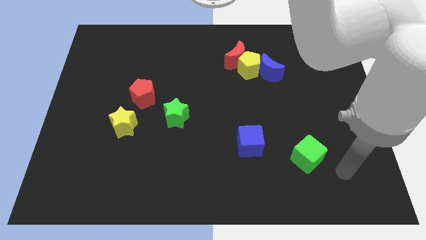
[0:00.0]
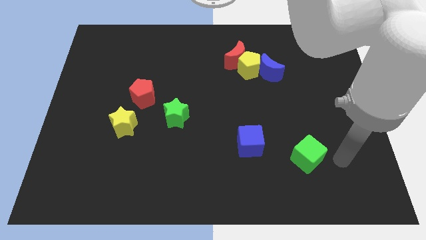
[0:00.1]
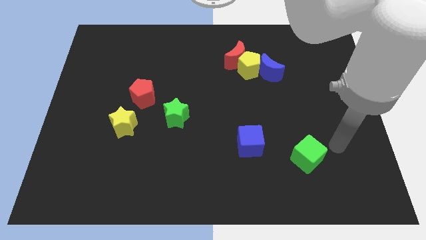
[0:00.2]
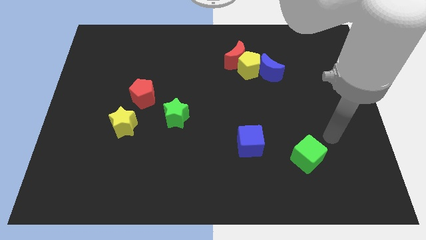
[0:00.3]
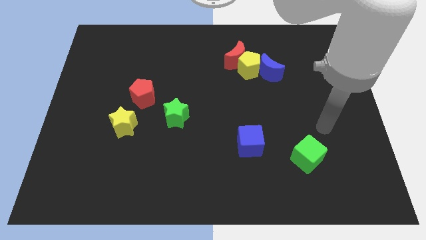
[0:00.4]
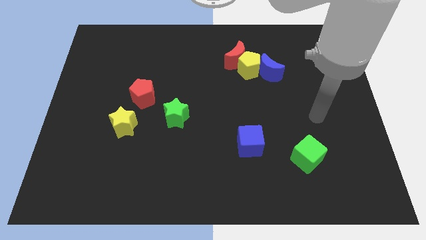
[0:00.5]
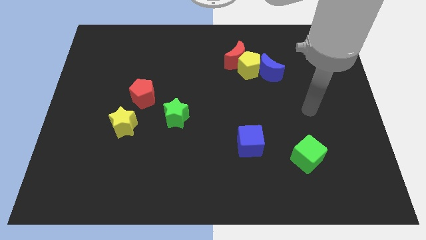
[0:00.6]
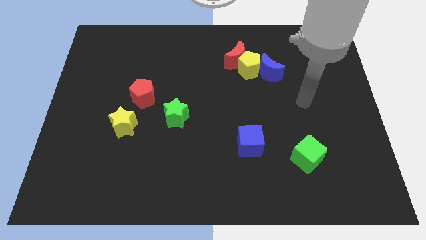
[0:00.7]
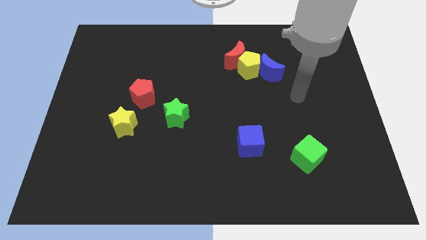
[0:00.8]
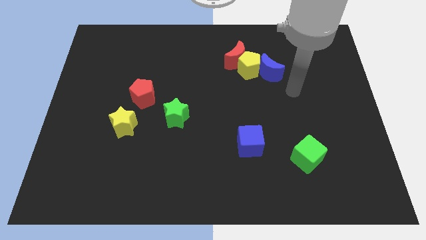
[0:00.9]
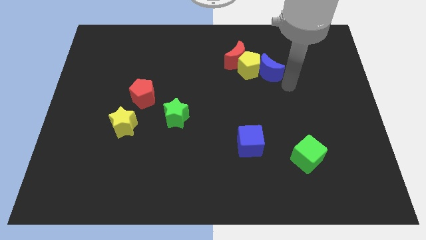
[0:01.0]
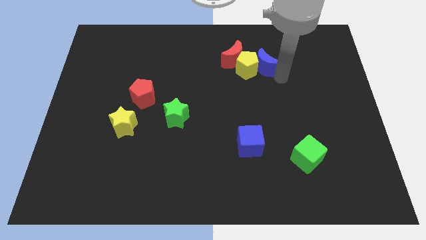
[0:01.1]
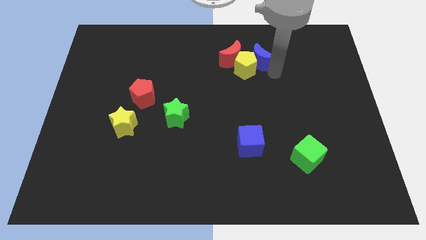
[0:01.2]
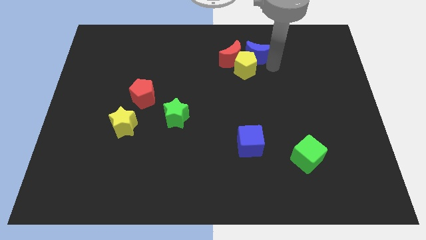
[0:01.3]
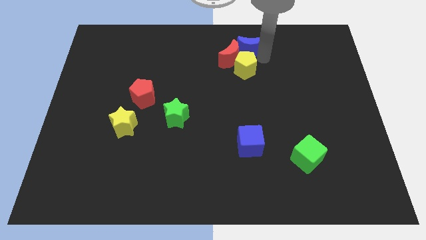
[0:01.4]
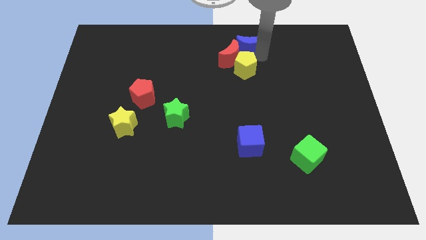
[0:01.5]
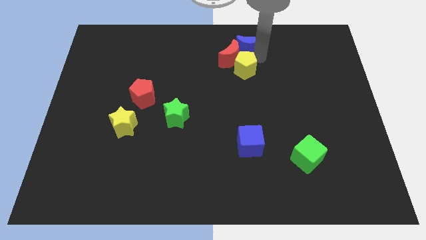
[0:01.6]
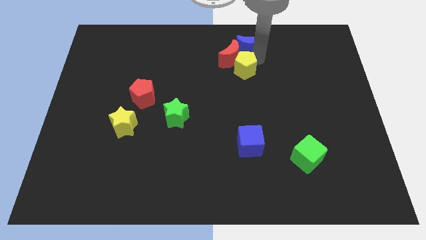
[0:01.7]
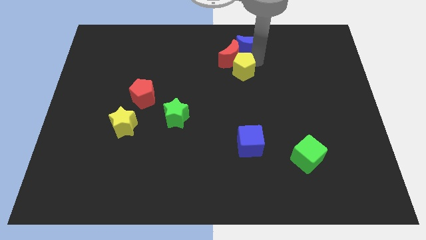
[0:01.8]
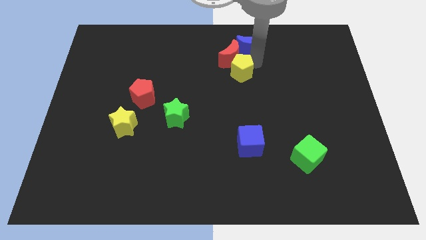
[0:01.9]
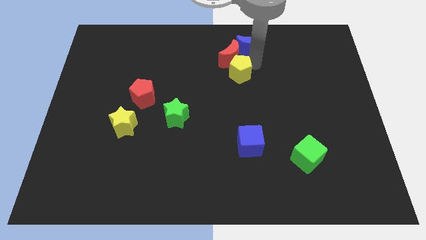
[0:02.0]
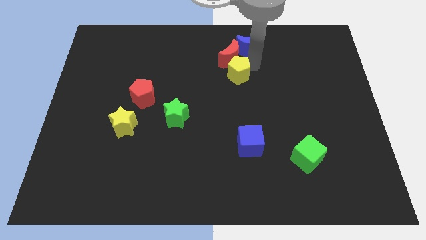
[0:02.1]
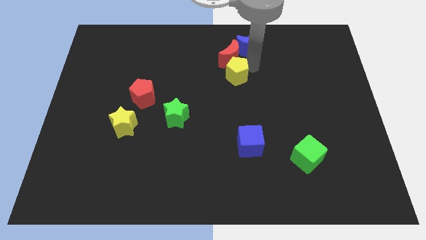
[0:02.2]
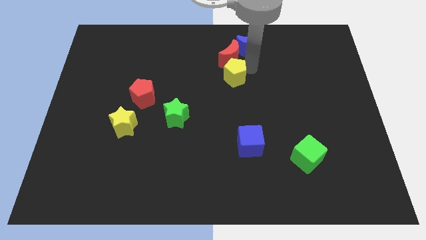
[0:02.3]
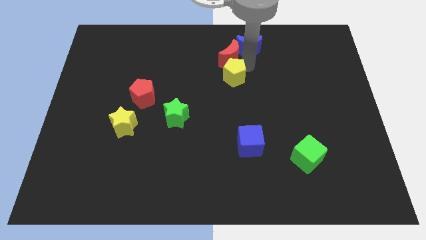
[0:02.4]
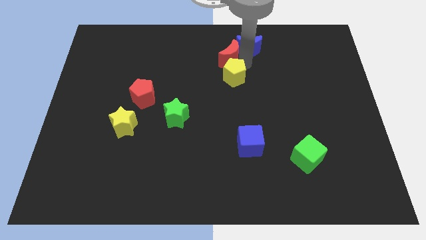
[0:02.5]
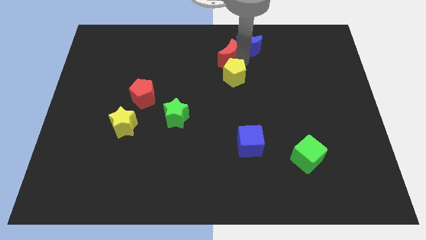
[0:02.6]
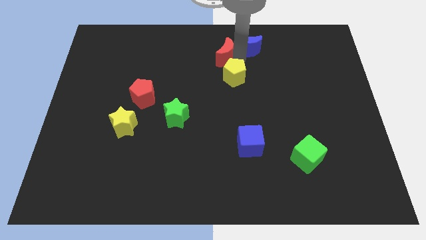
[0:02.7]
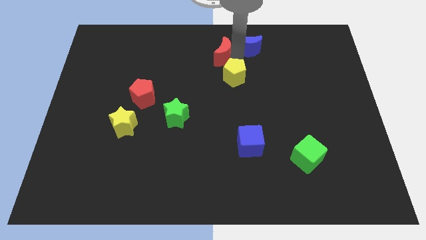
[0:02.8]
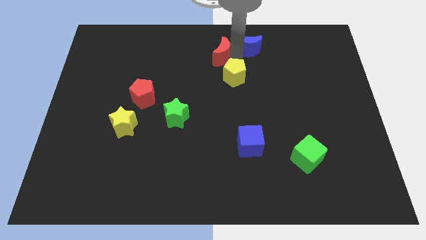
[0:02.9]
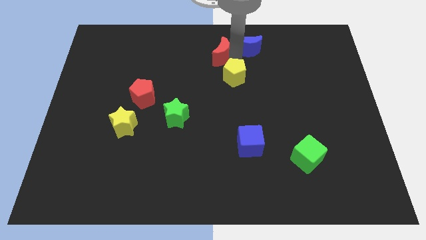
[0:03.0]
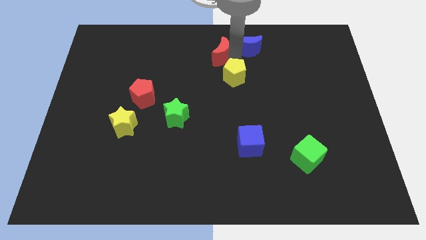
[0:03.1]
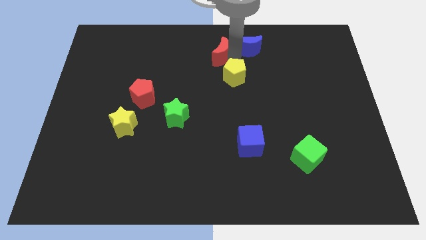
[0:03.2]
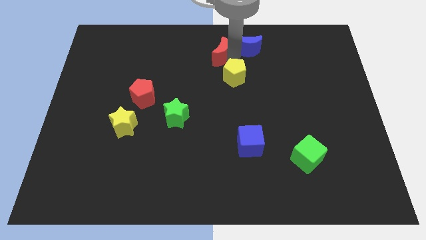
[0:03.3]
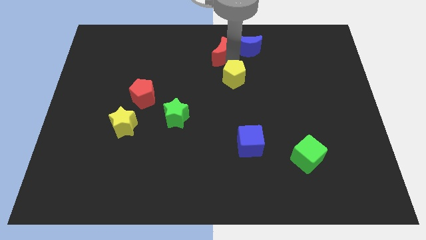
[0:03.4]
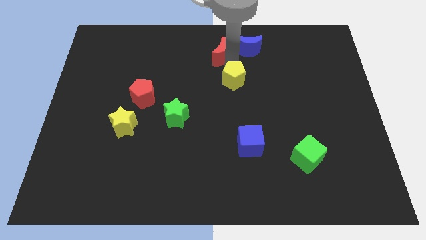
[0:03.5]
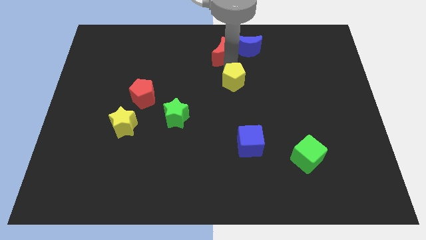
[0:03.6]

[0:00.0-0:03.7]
move the yellow pentagon away from the red moon and blue moon

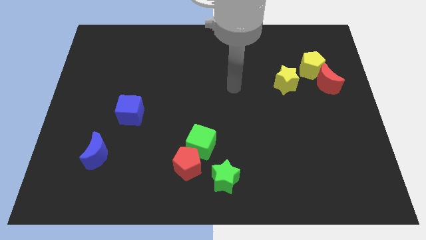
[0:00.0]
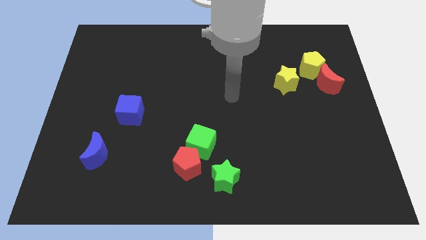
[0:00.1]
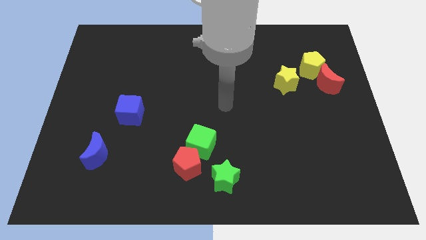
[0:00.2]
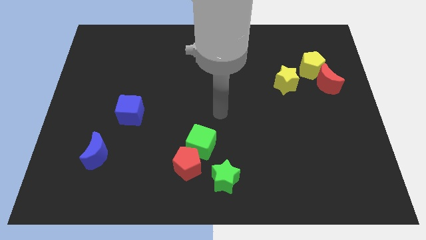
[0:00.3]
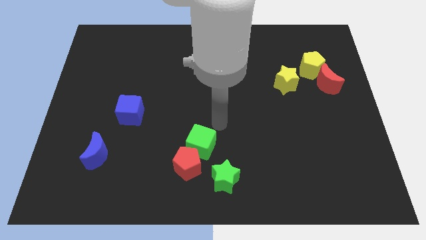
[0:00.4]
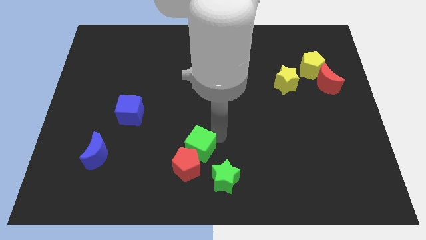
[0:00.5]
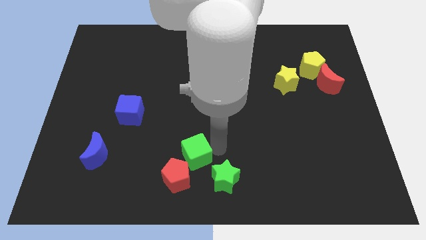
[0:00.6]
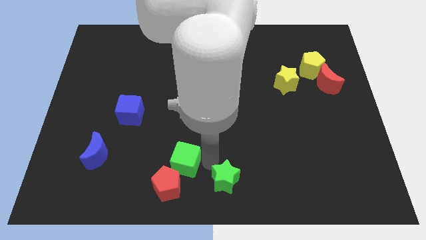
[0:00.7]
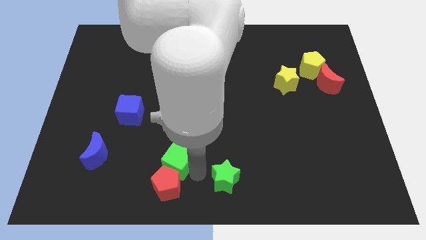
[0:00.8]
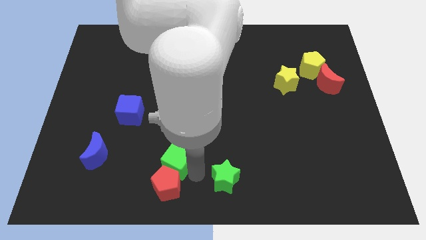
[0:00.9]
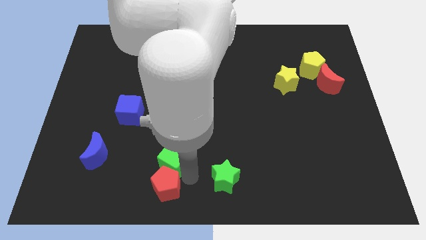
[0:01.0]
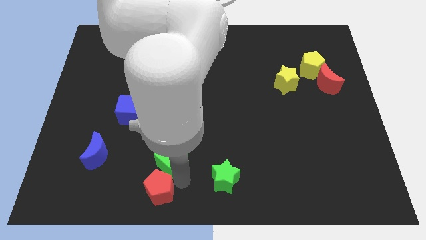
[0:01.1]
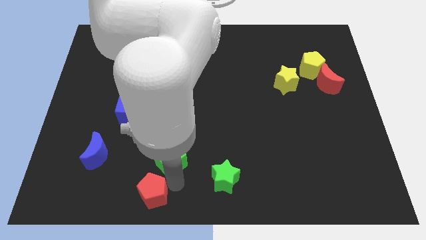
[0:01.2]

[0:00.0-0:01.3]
pull the red pentagon apart from the green cube and green star

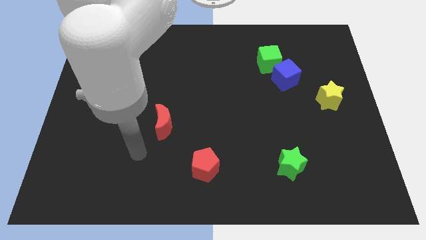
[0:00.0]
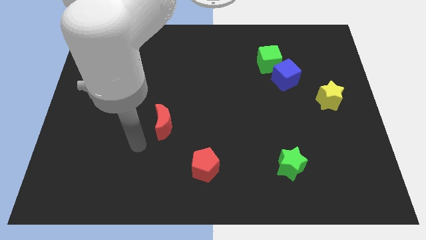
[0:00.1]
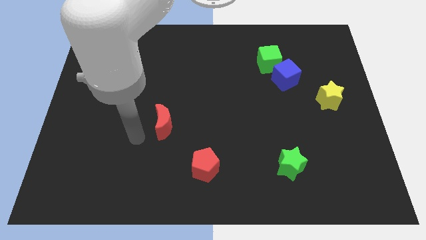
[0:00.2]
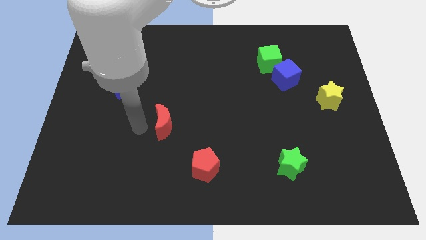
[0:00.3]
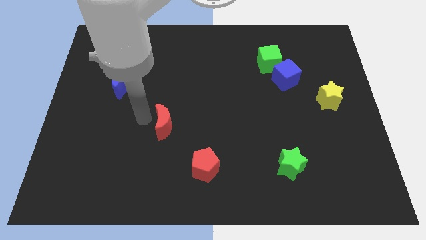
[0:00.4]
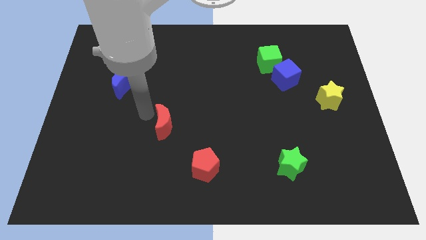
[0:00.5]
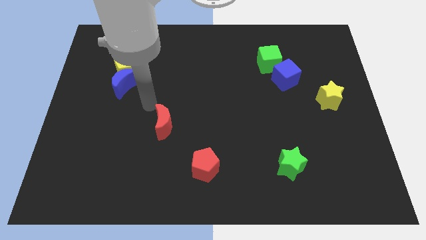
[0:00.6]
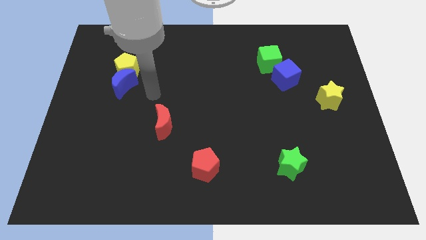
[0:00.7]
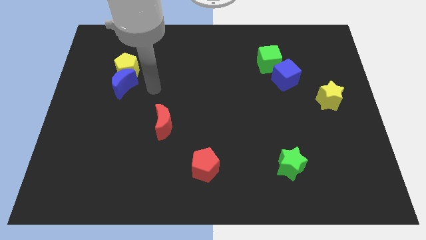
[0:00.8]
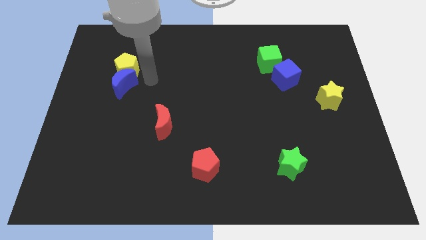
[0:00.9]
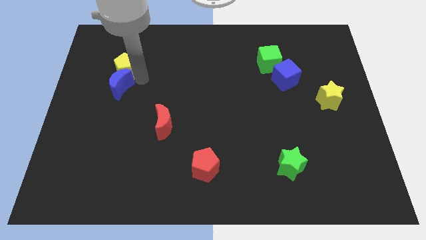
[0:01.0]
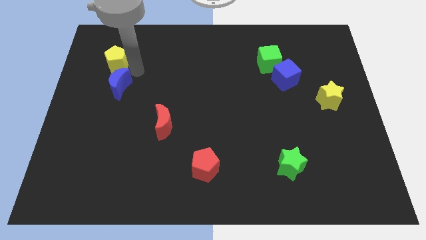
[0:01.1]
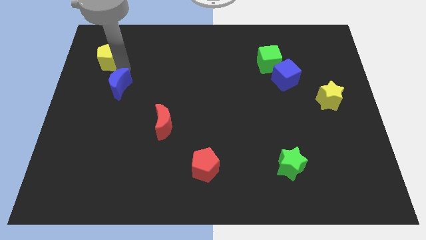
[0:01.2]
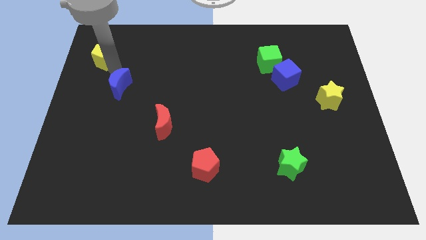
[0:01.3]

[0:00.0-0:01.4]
separate the blue moon from the yellow pentagon

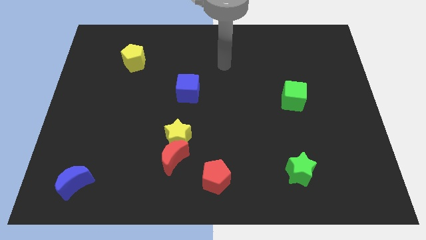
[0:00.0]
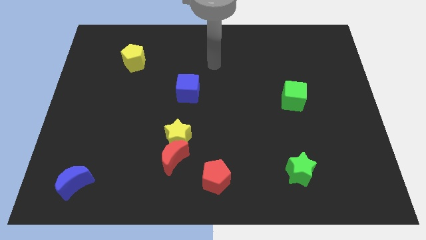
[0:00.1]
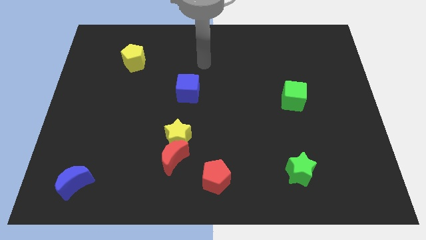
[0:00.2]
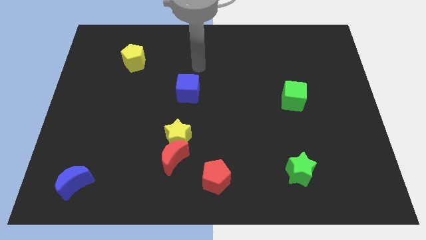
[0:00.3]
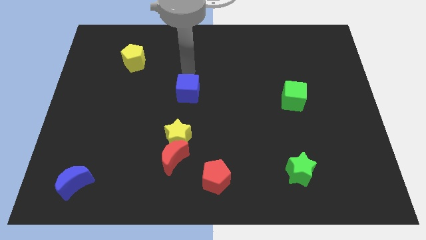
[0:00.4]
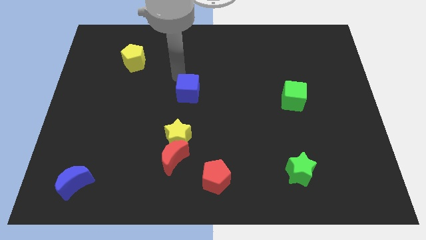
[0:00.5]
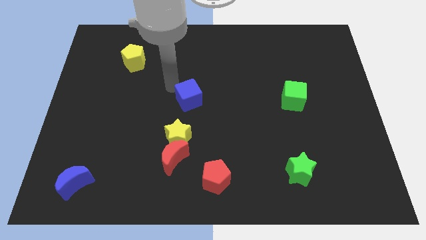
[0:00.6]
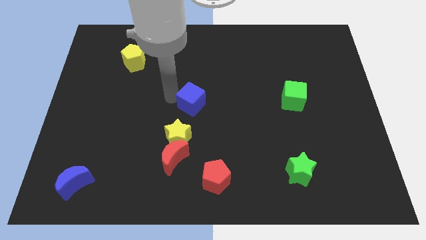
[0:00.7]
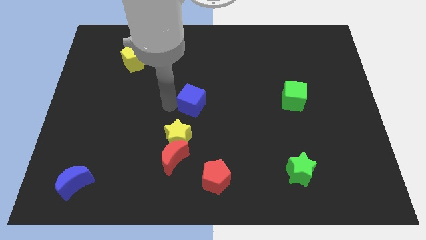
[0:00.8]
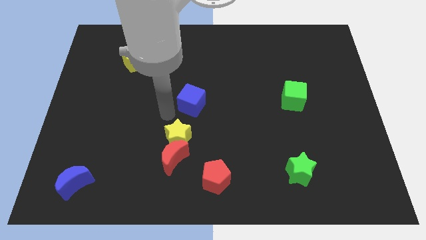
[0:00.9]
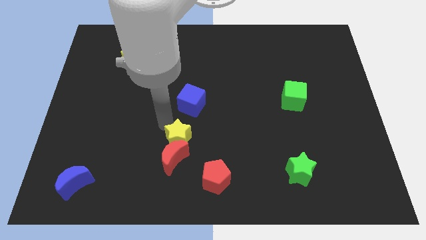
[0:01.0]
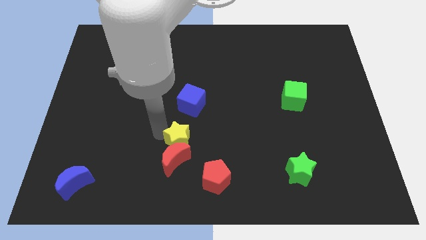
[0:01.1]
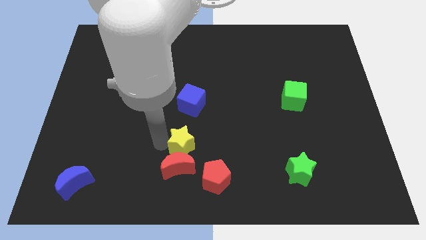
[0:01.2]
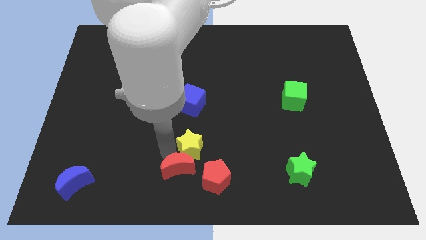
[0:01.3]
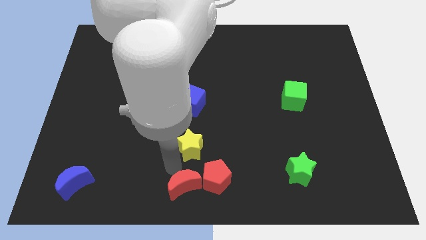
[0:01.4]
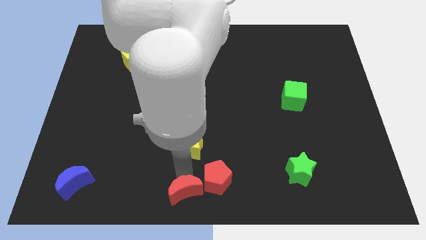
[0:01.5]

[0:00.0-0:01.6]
move the yellow star away from the red moon

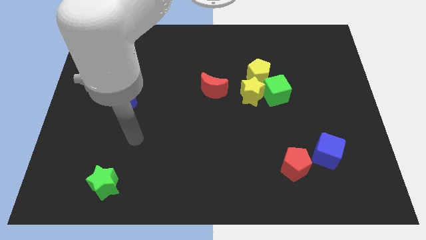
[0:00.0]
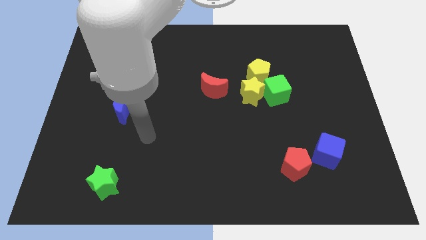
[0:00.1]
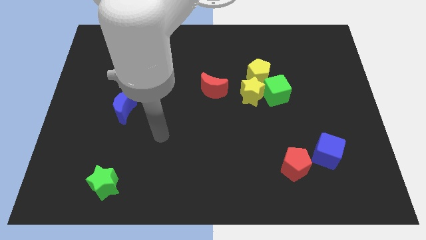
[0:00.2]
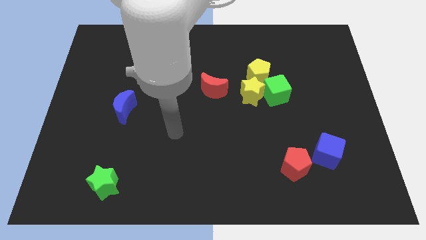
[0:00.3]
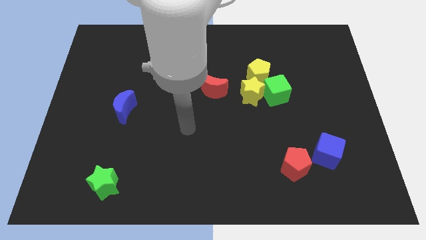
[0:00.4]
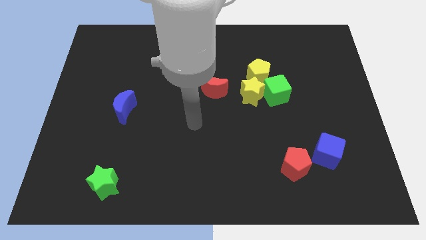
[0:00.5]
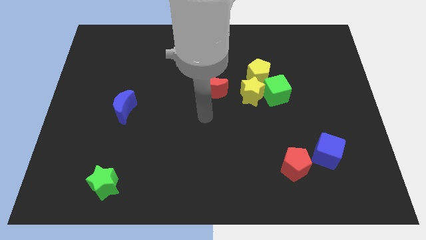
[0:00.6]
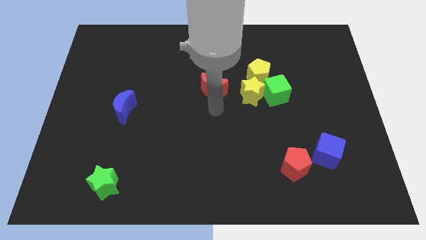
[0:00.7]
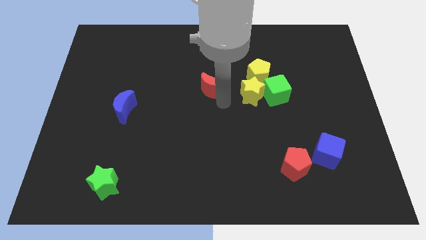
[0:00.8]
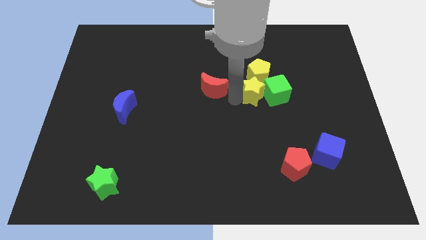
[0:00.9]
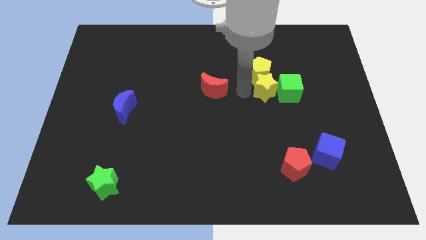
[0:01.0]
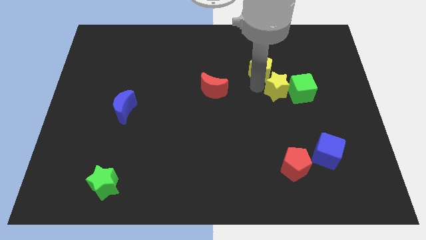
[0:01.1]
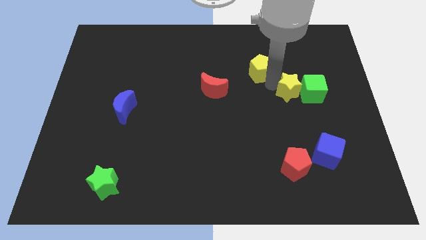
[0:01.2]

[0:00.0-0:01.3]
move the green cube away from the yellow star and yellow pentagon
